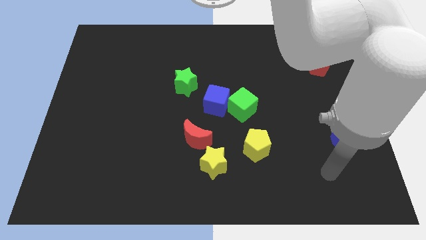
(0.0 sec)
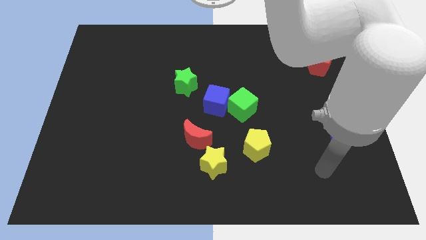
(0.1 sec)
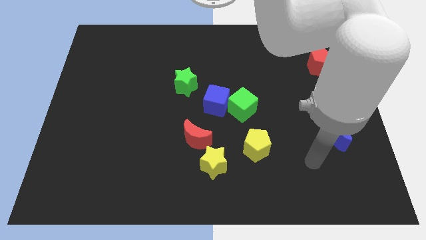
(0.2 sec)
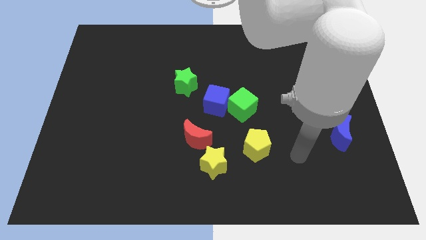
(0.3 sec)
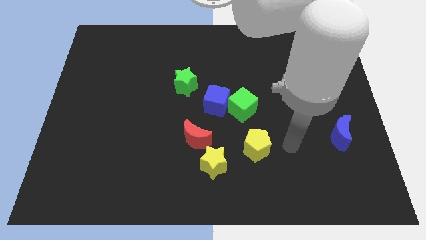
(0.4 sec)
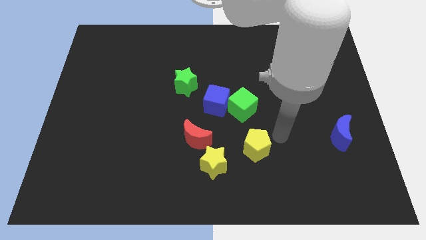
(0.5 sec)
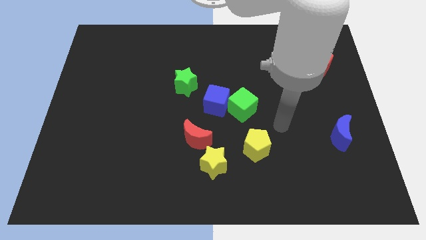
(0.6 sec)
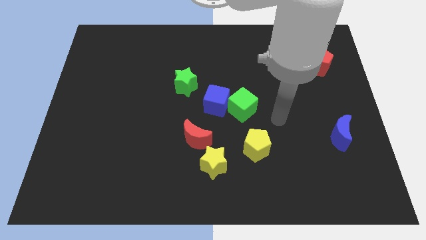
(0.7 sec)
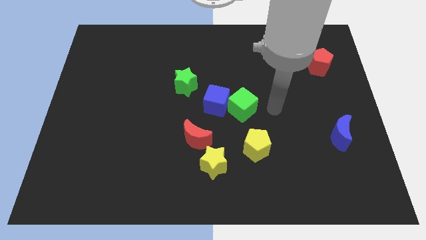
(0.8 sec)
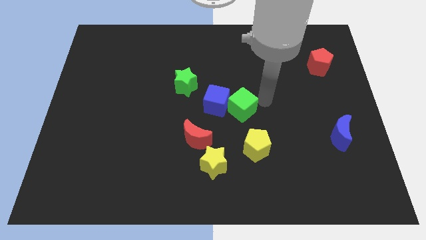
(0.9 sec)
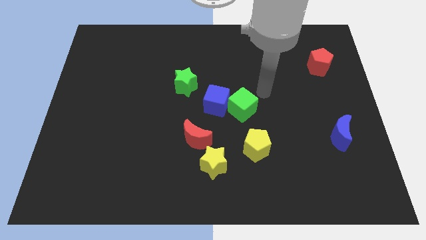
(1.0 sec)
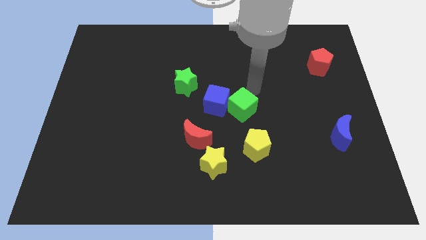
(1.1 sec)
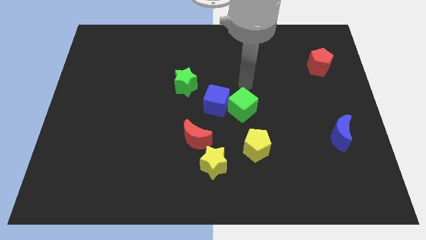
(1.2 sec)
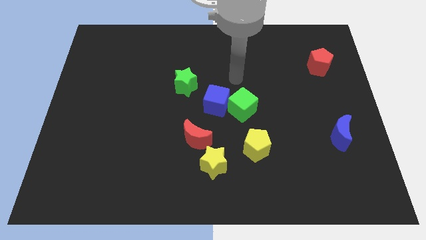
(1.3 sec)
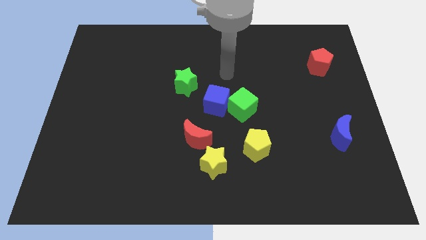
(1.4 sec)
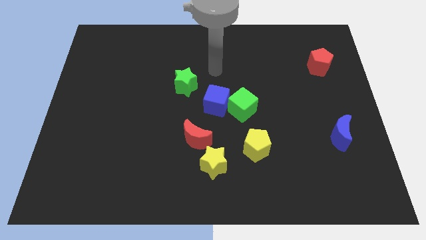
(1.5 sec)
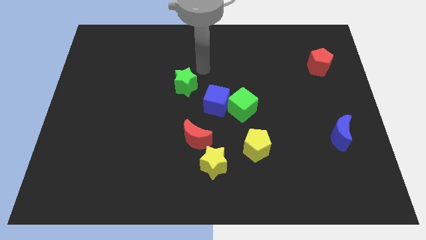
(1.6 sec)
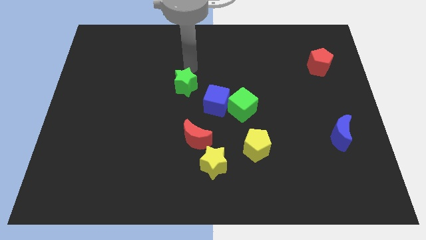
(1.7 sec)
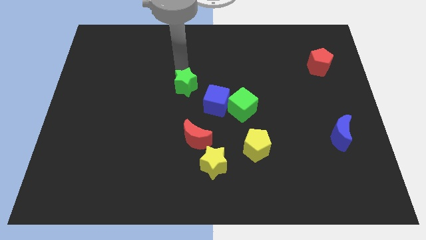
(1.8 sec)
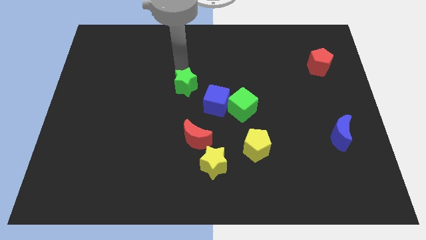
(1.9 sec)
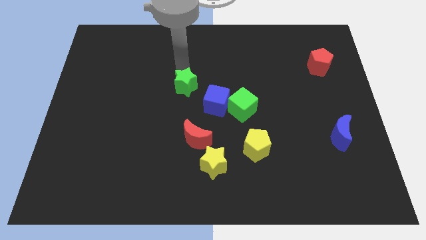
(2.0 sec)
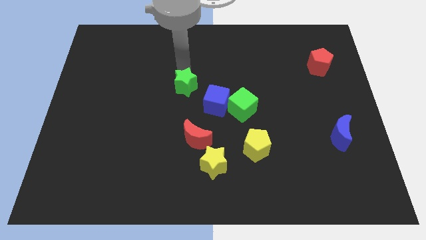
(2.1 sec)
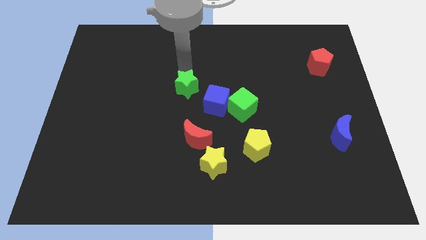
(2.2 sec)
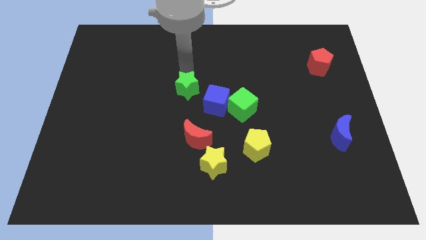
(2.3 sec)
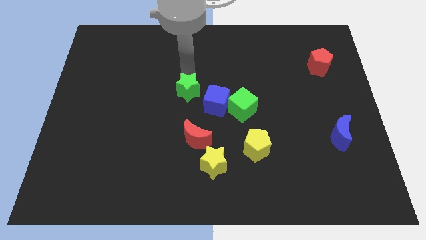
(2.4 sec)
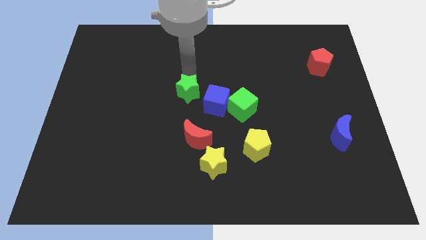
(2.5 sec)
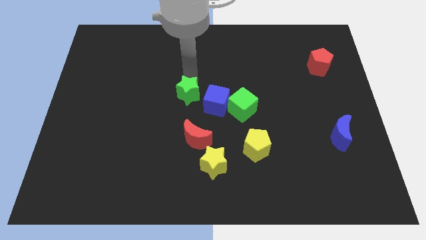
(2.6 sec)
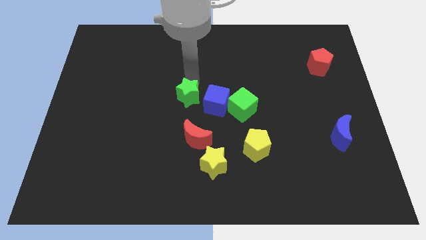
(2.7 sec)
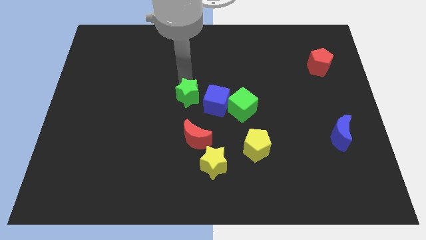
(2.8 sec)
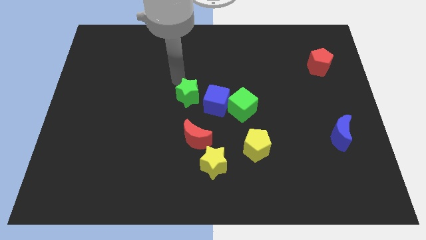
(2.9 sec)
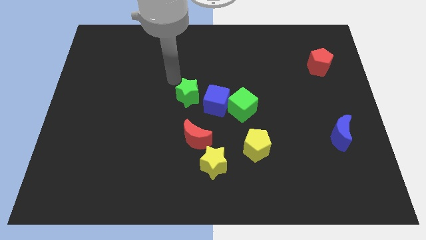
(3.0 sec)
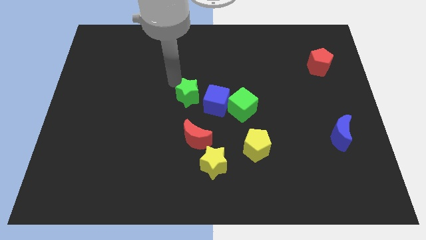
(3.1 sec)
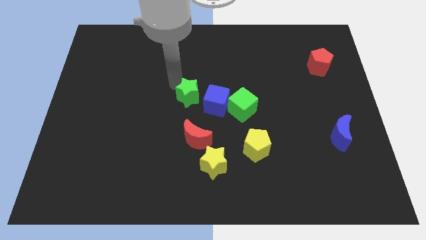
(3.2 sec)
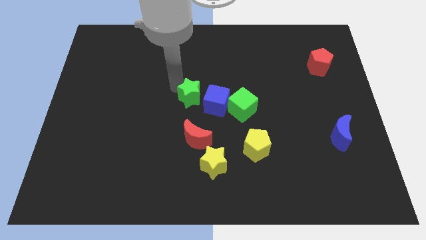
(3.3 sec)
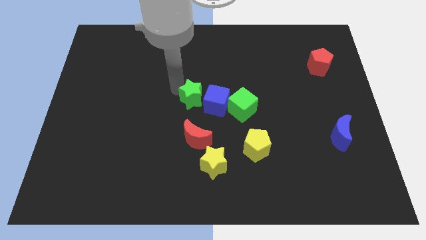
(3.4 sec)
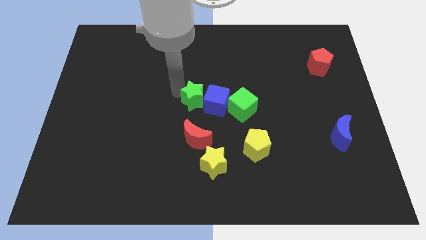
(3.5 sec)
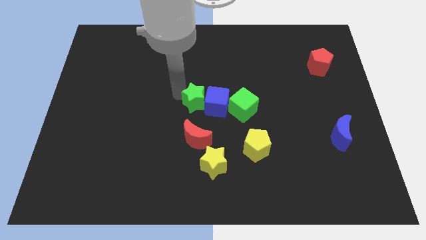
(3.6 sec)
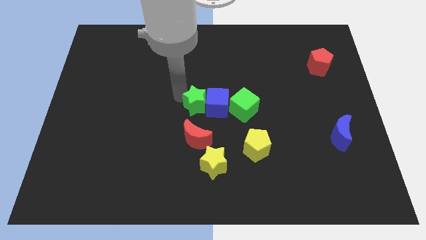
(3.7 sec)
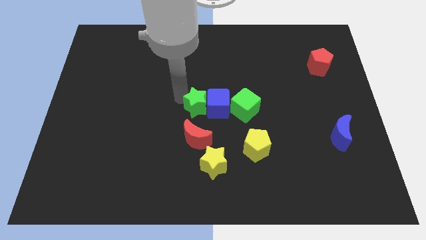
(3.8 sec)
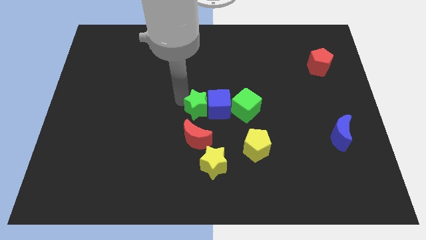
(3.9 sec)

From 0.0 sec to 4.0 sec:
move the green star down and then to the right a little

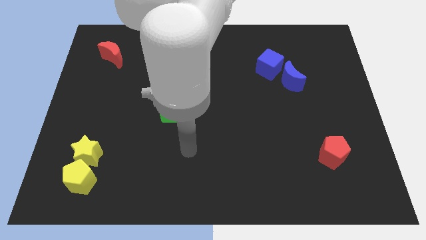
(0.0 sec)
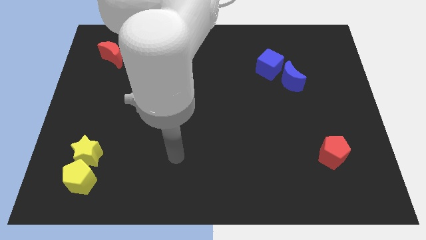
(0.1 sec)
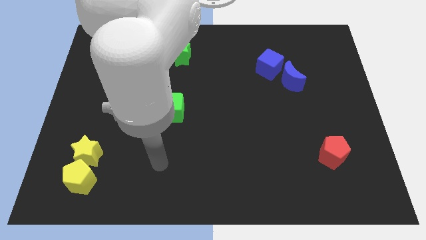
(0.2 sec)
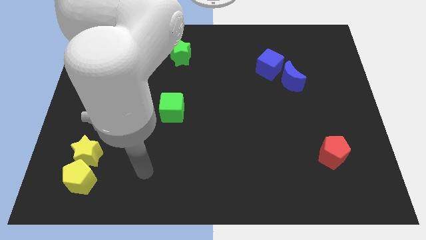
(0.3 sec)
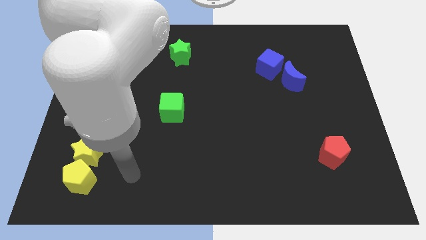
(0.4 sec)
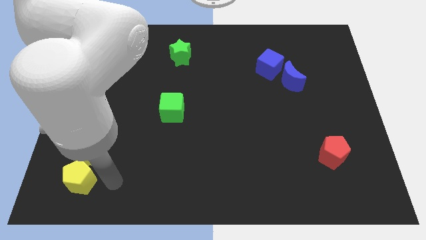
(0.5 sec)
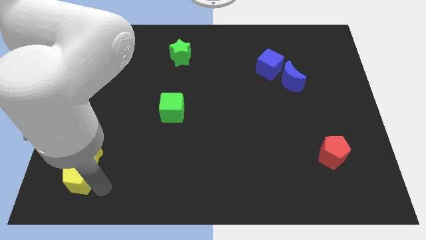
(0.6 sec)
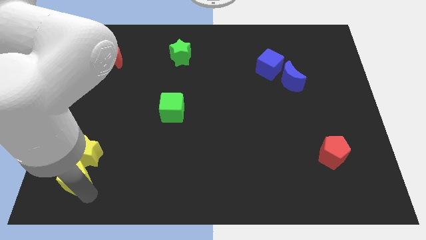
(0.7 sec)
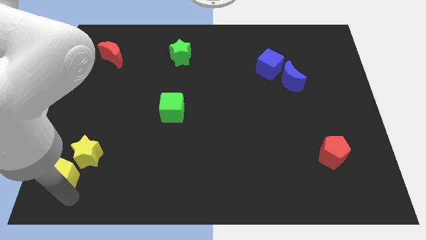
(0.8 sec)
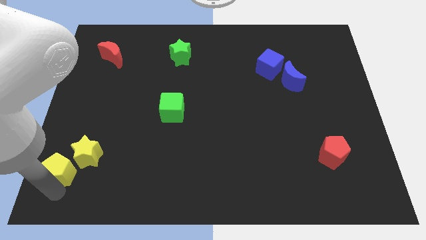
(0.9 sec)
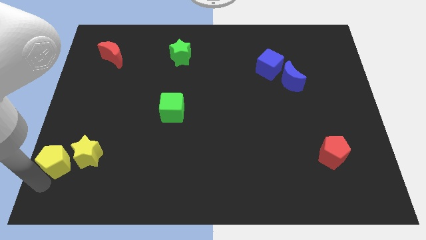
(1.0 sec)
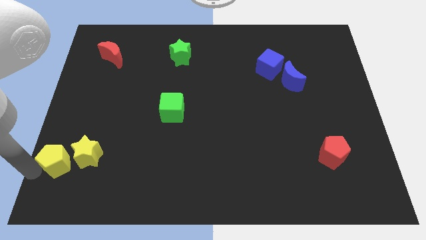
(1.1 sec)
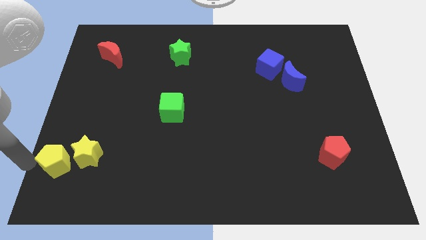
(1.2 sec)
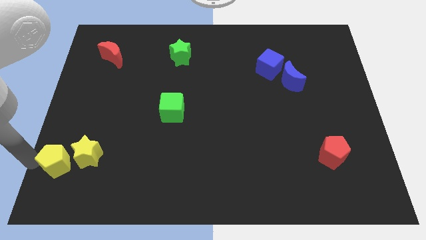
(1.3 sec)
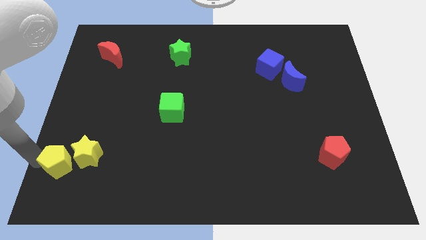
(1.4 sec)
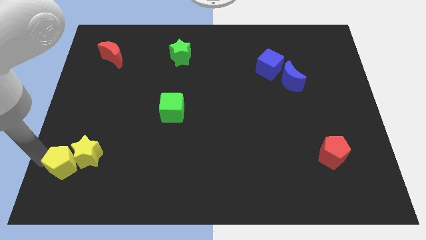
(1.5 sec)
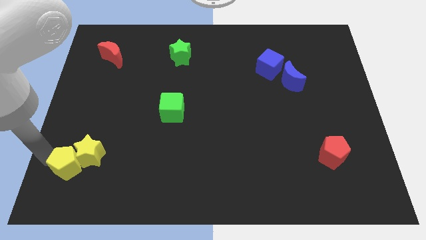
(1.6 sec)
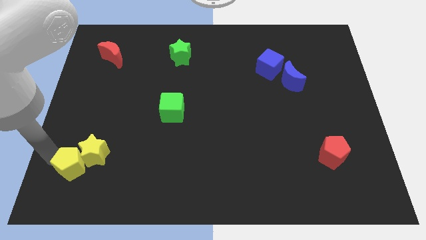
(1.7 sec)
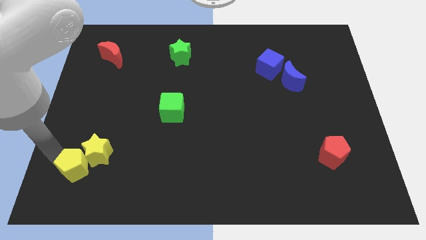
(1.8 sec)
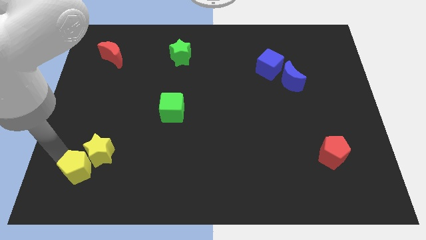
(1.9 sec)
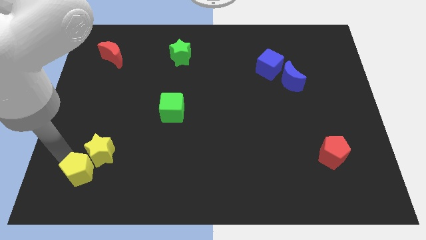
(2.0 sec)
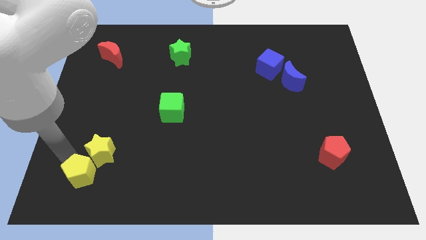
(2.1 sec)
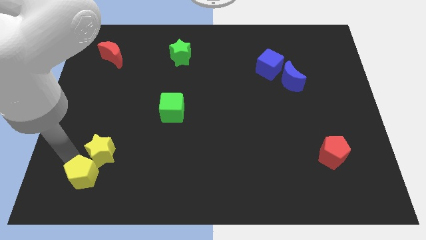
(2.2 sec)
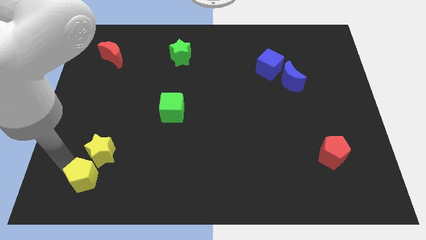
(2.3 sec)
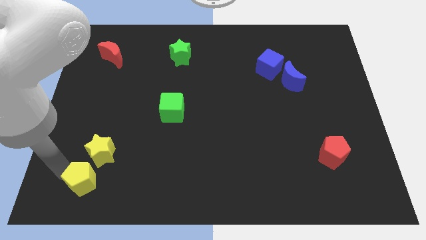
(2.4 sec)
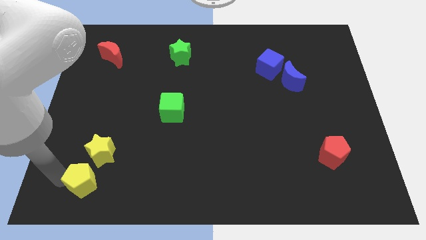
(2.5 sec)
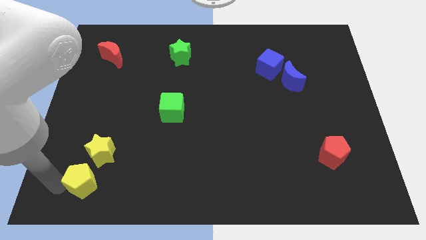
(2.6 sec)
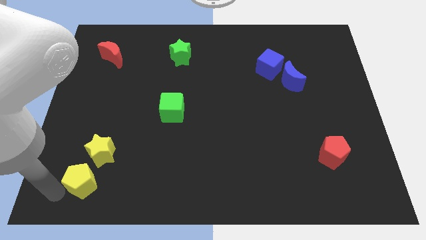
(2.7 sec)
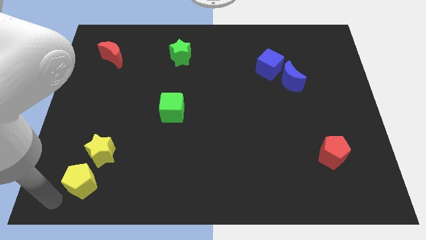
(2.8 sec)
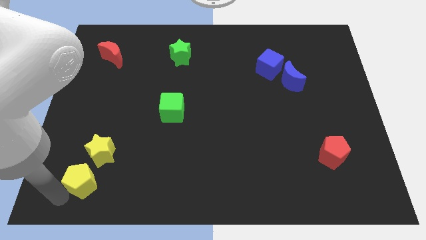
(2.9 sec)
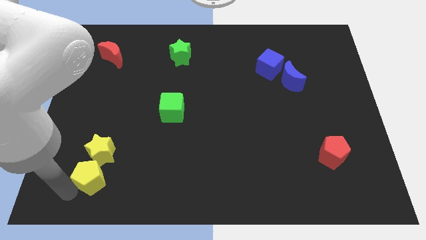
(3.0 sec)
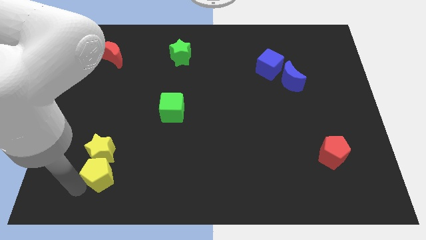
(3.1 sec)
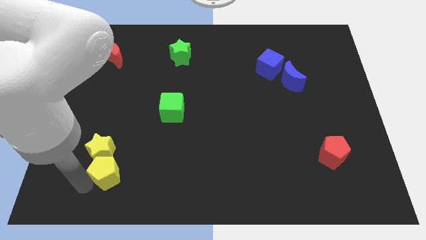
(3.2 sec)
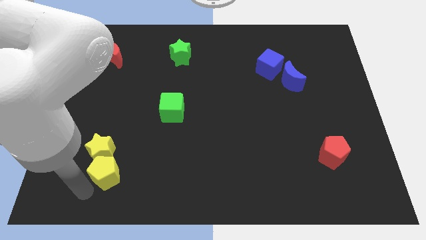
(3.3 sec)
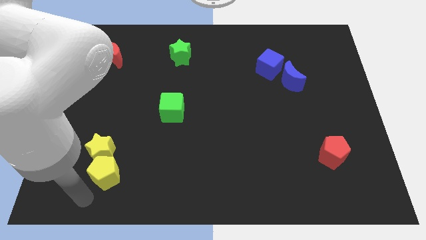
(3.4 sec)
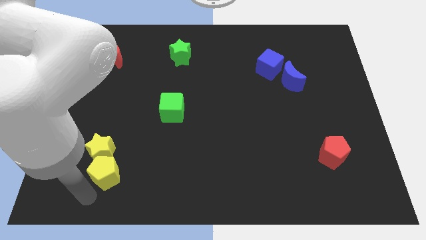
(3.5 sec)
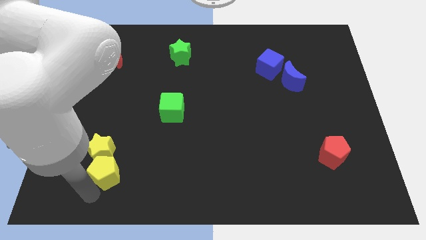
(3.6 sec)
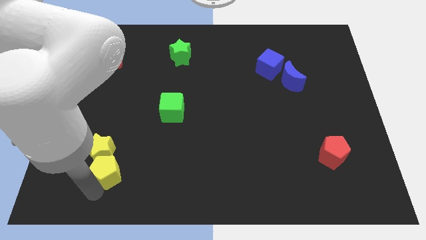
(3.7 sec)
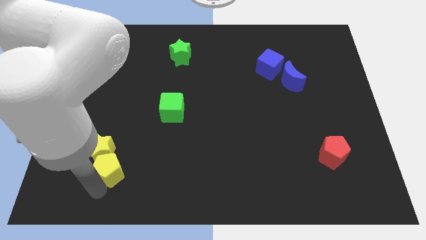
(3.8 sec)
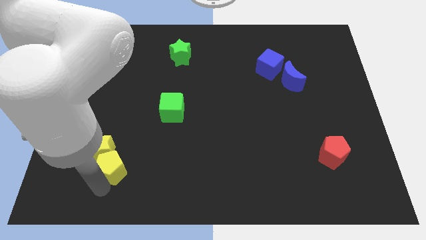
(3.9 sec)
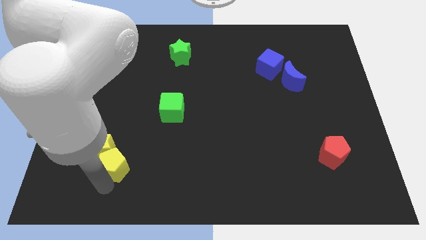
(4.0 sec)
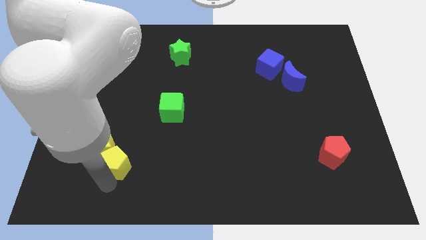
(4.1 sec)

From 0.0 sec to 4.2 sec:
slightly slide the yellow pentagon up and then right

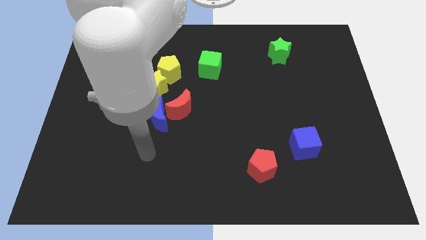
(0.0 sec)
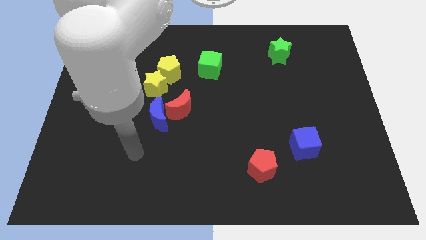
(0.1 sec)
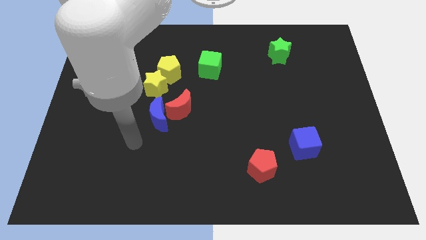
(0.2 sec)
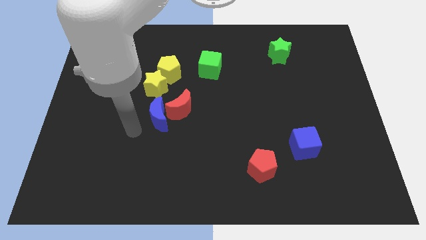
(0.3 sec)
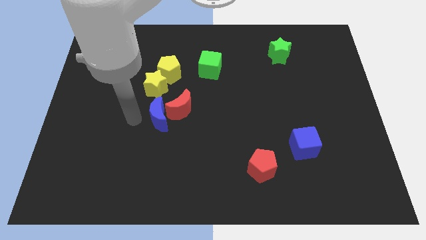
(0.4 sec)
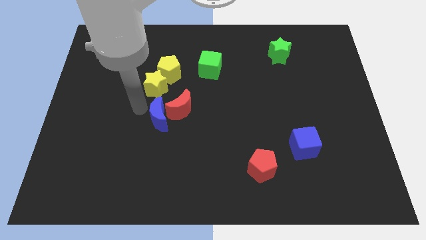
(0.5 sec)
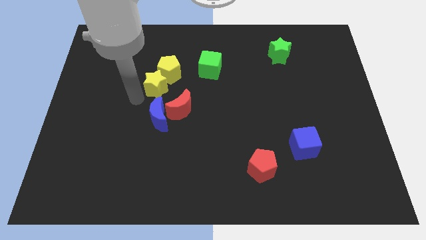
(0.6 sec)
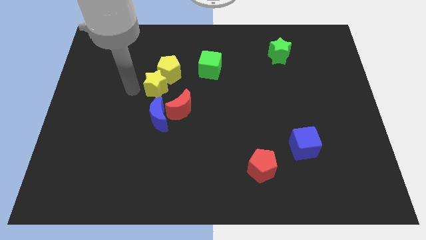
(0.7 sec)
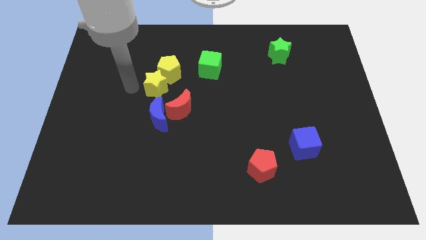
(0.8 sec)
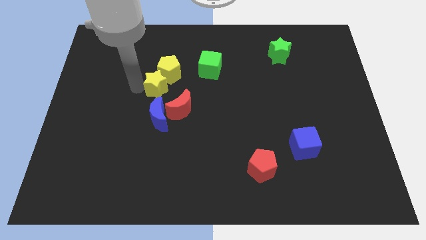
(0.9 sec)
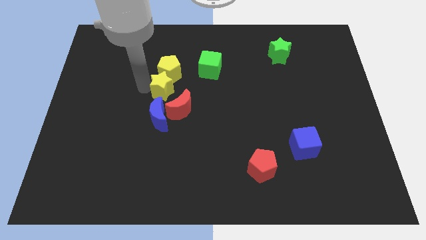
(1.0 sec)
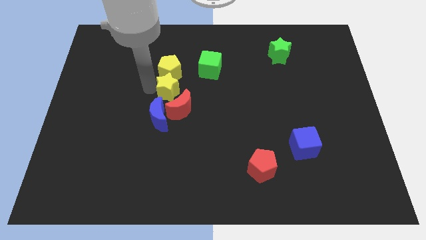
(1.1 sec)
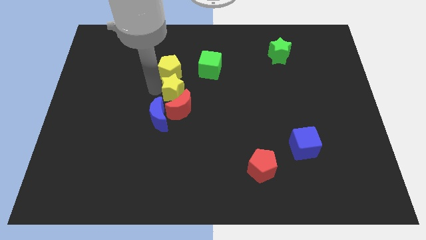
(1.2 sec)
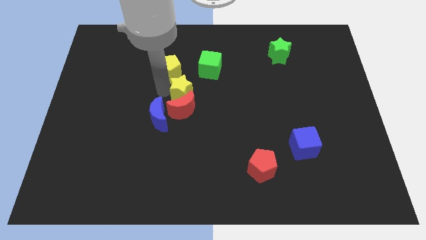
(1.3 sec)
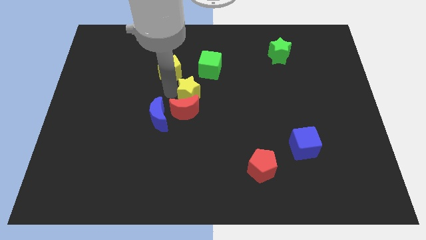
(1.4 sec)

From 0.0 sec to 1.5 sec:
move the yellow star somewhat right
